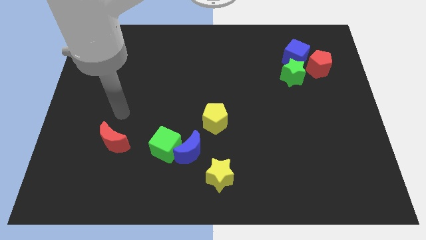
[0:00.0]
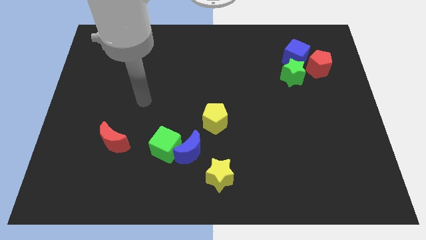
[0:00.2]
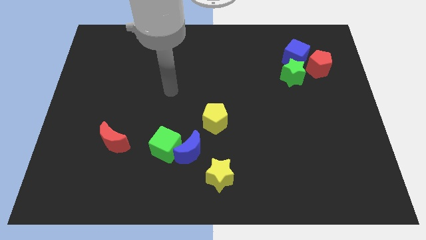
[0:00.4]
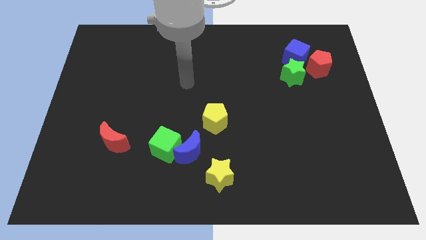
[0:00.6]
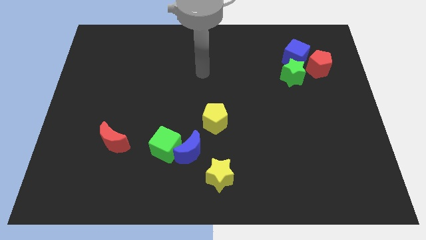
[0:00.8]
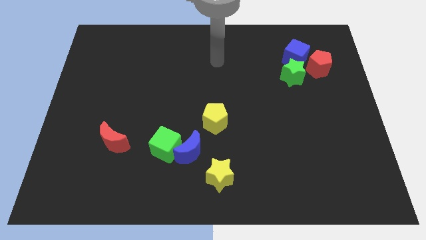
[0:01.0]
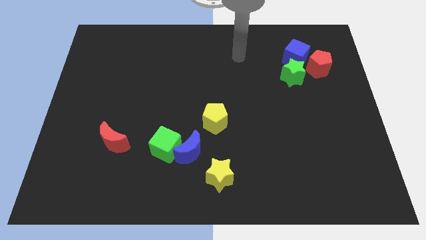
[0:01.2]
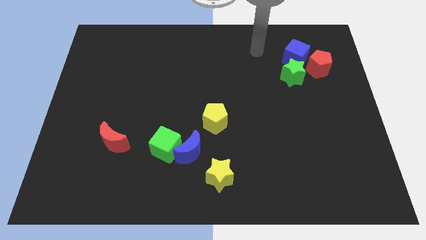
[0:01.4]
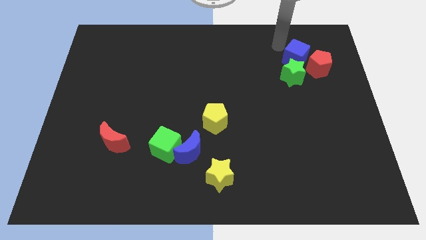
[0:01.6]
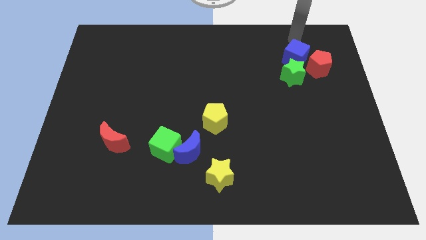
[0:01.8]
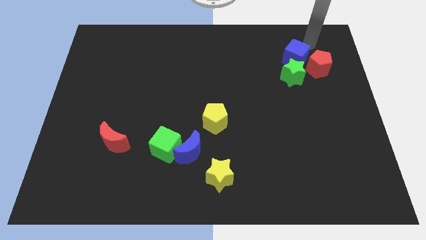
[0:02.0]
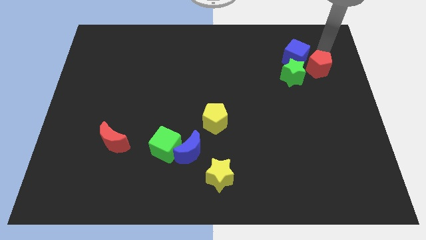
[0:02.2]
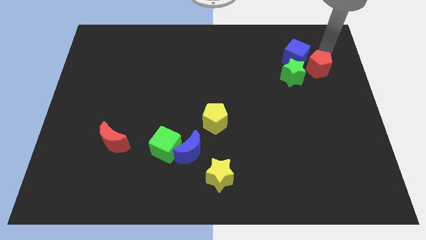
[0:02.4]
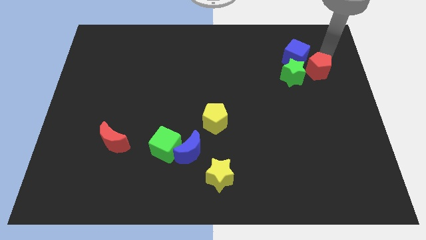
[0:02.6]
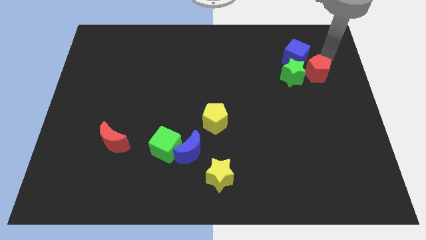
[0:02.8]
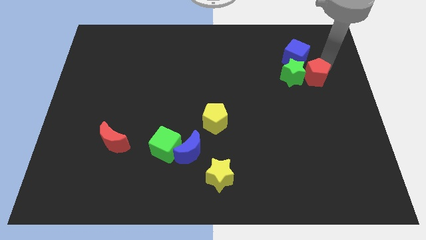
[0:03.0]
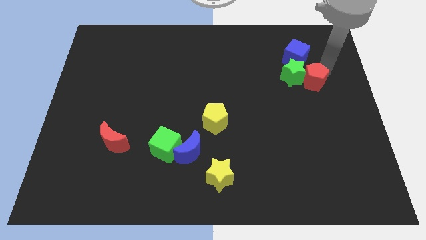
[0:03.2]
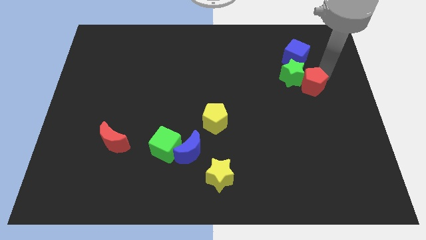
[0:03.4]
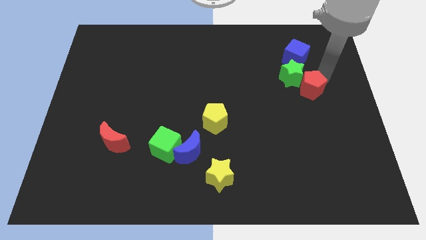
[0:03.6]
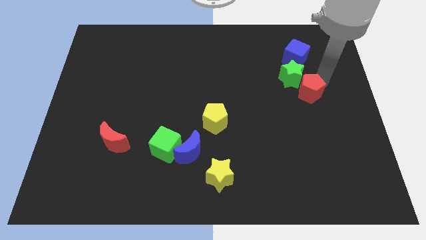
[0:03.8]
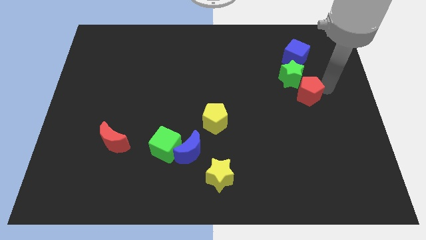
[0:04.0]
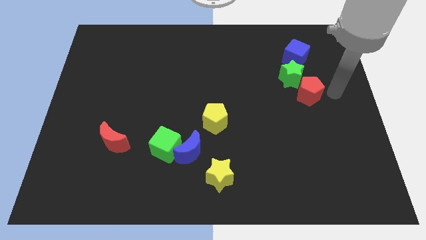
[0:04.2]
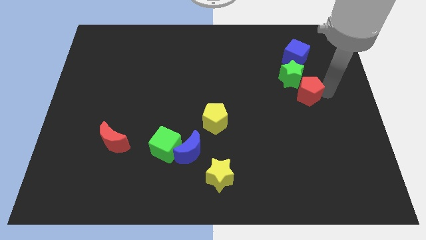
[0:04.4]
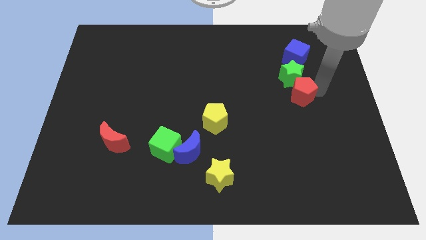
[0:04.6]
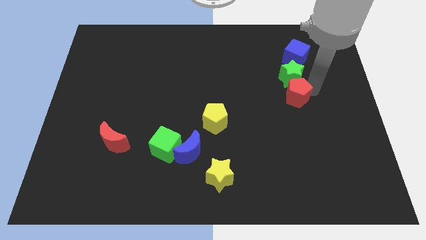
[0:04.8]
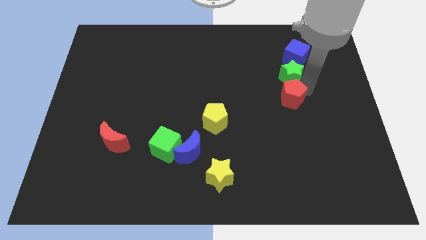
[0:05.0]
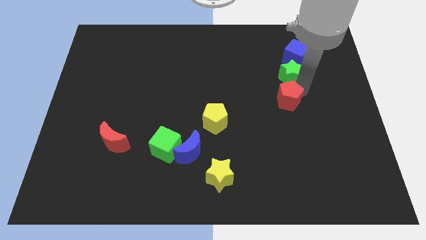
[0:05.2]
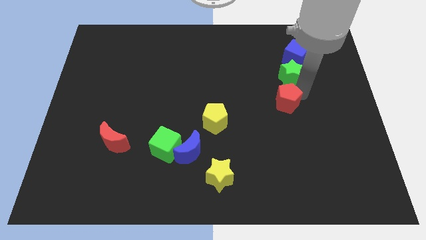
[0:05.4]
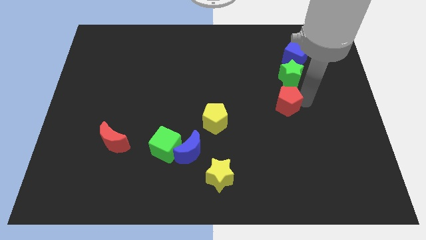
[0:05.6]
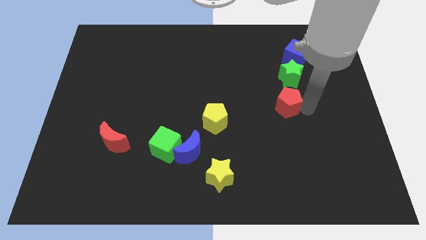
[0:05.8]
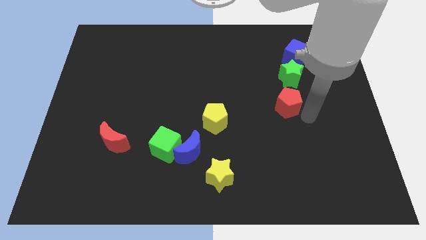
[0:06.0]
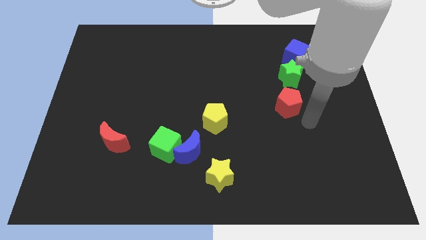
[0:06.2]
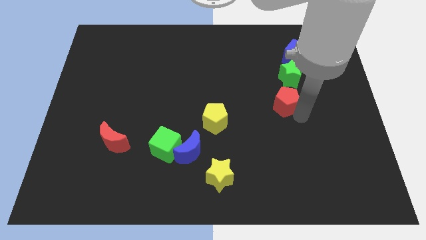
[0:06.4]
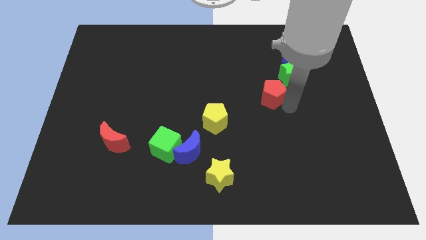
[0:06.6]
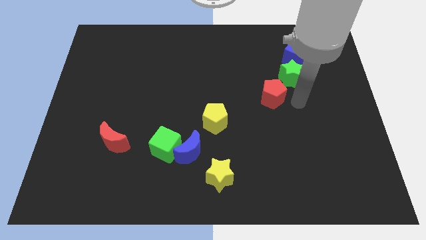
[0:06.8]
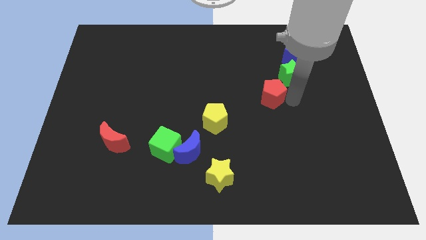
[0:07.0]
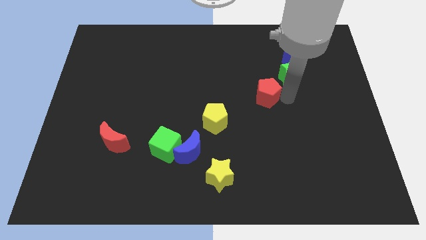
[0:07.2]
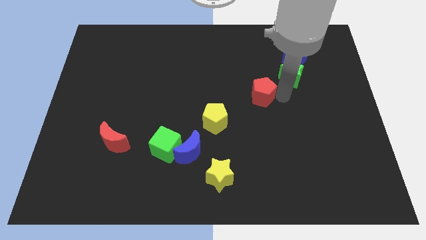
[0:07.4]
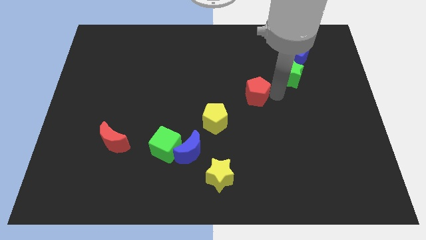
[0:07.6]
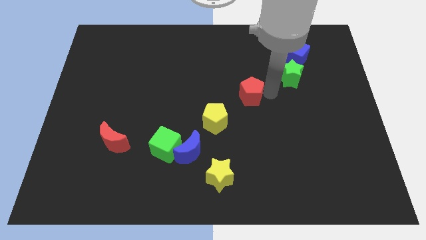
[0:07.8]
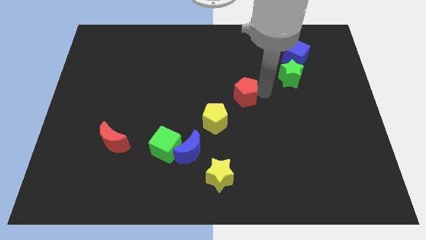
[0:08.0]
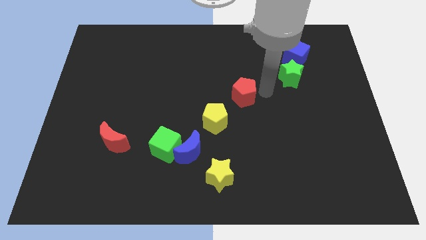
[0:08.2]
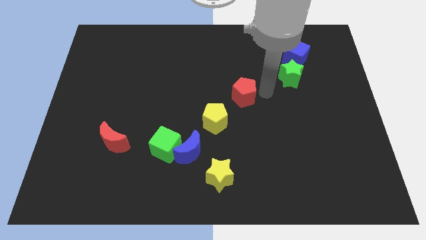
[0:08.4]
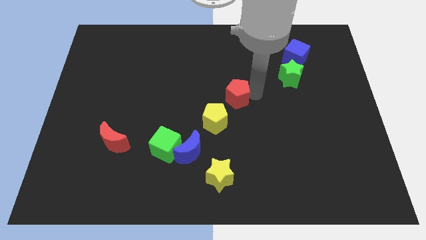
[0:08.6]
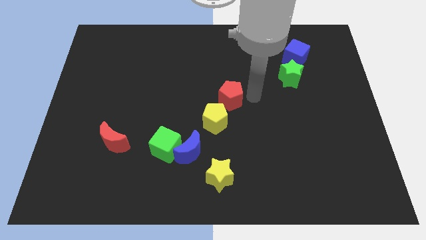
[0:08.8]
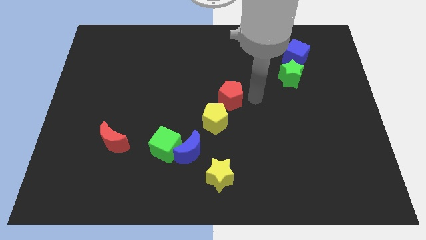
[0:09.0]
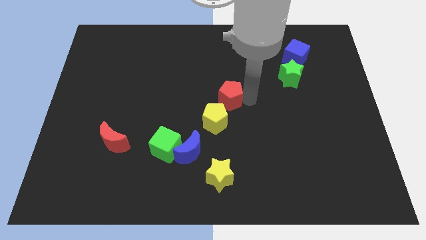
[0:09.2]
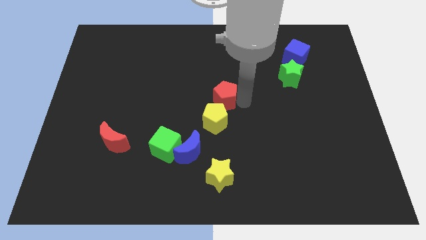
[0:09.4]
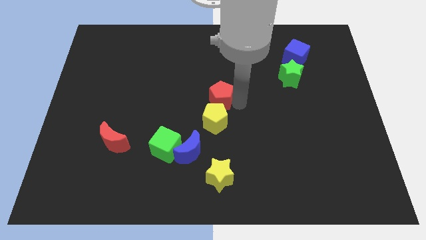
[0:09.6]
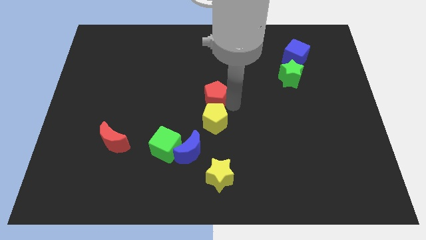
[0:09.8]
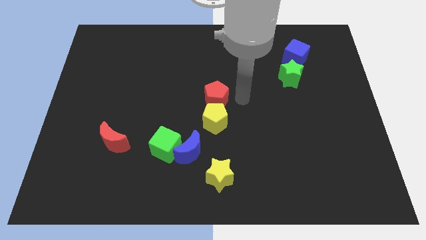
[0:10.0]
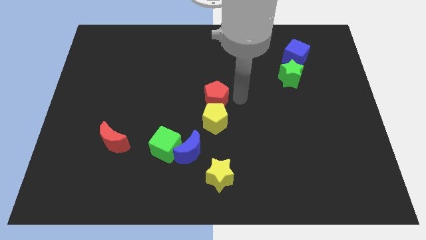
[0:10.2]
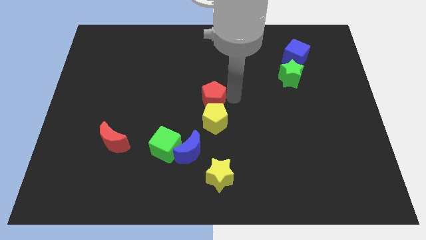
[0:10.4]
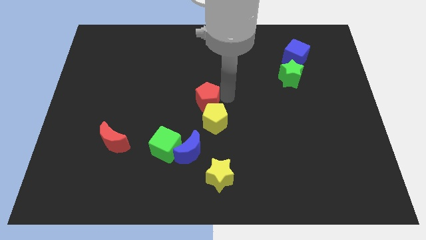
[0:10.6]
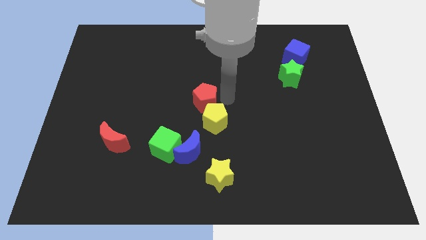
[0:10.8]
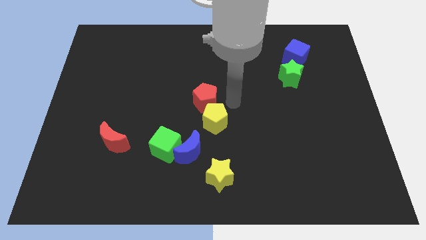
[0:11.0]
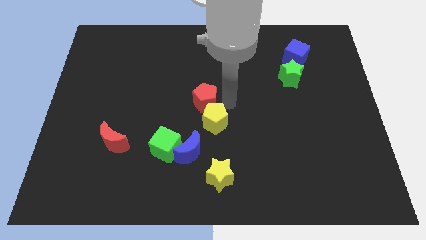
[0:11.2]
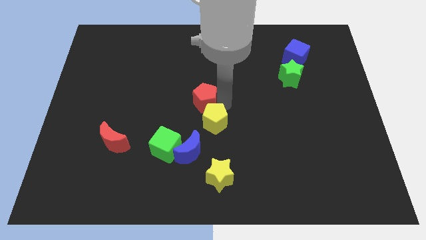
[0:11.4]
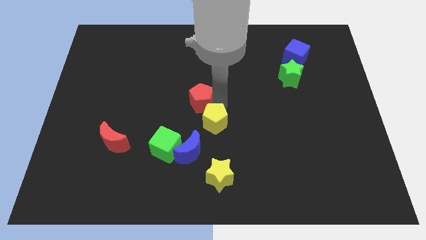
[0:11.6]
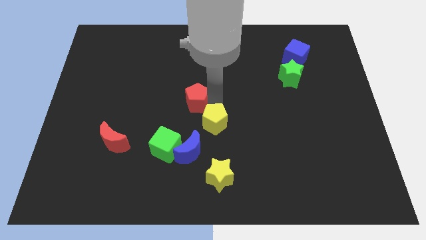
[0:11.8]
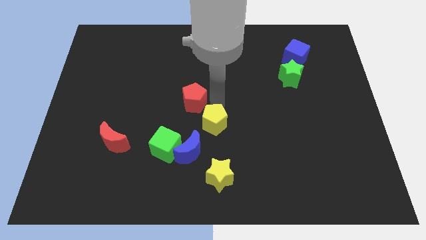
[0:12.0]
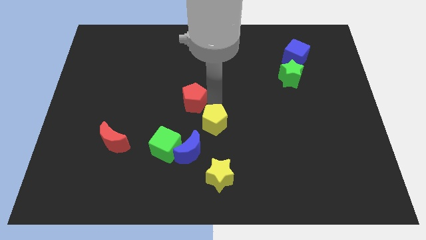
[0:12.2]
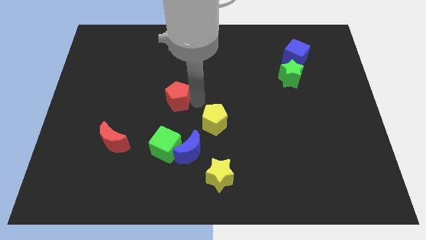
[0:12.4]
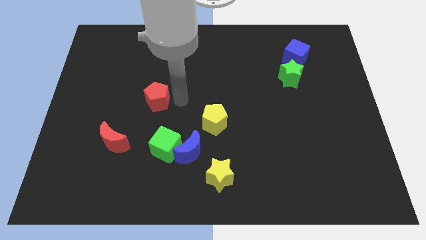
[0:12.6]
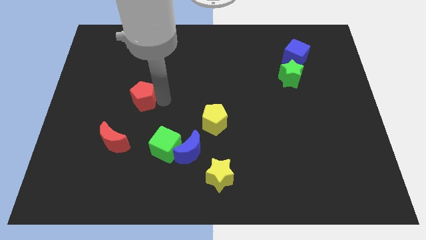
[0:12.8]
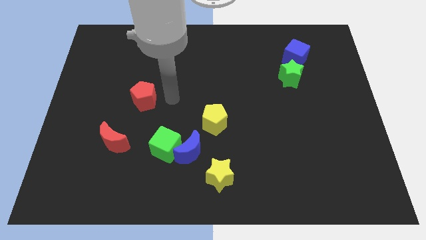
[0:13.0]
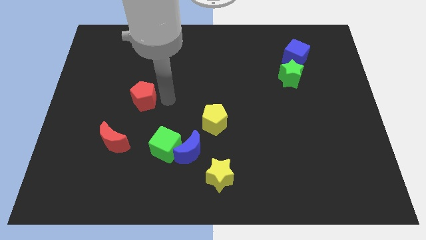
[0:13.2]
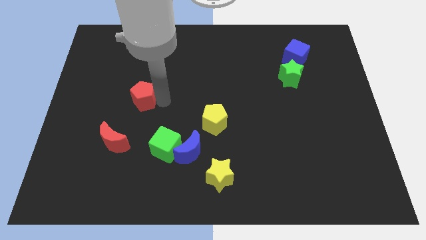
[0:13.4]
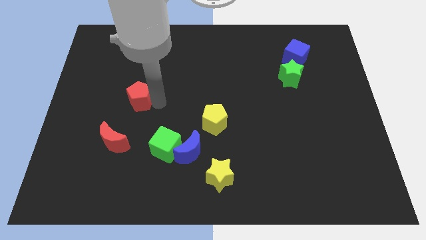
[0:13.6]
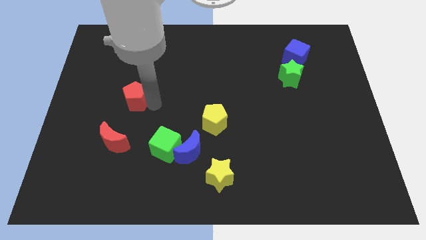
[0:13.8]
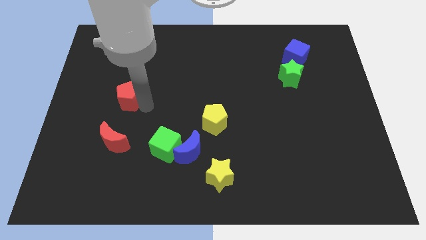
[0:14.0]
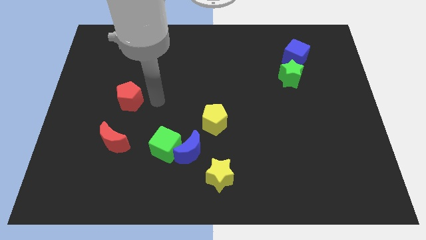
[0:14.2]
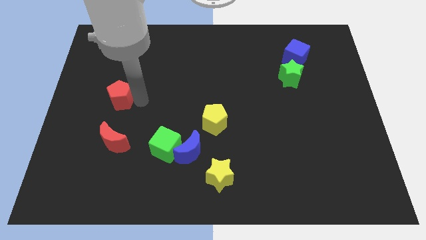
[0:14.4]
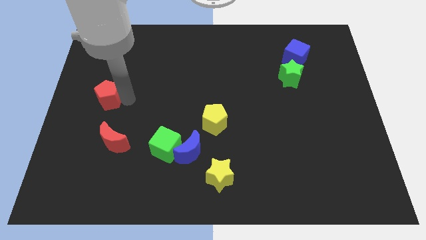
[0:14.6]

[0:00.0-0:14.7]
push the red pentagon to the center left
